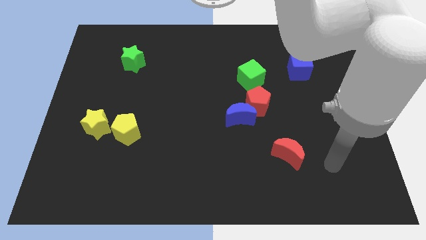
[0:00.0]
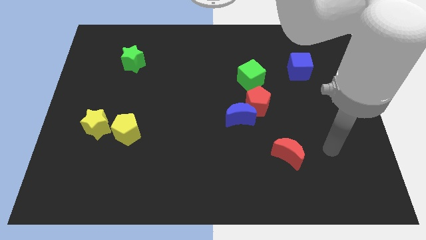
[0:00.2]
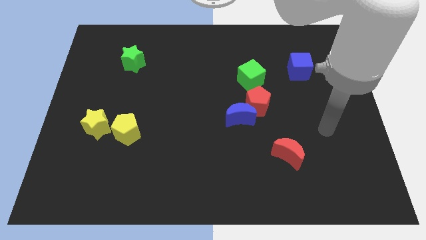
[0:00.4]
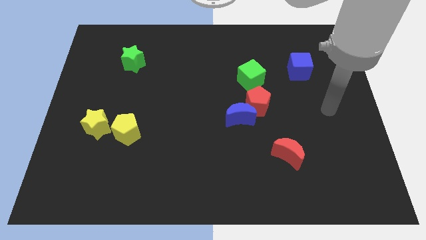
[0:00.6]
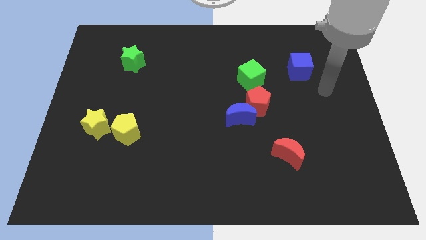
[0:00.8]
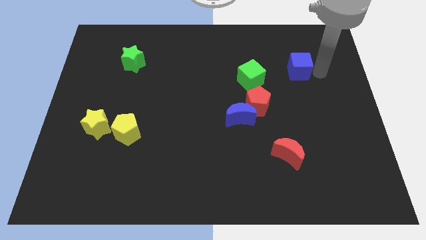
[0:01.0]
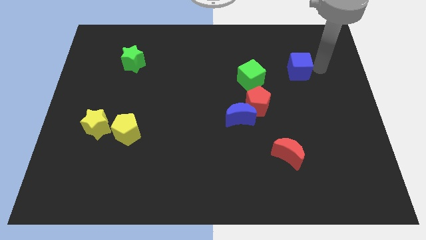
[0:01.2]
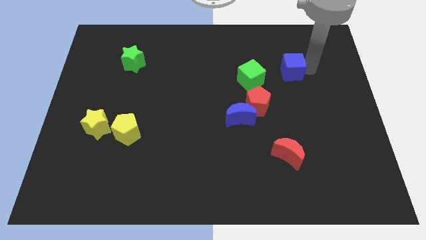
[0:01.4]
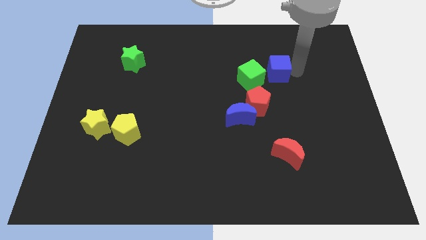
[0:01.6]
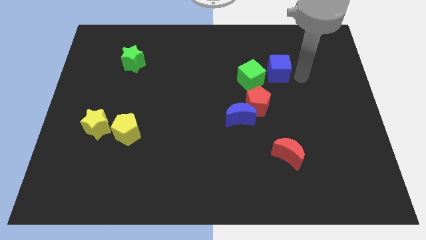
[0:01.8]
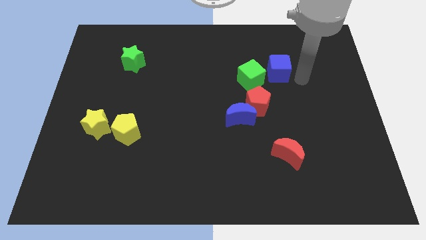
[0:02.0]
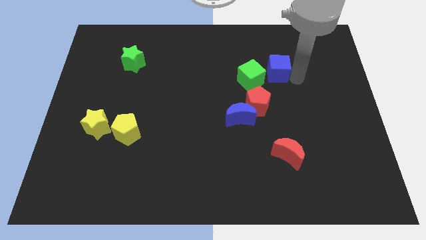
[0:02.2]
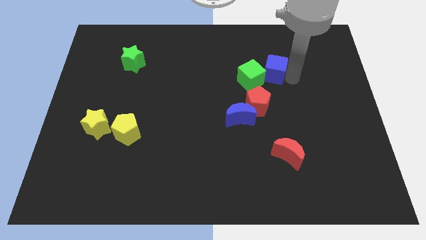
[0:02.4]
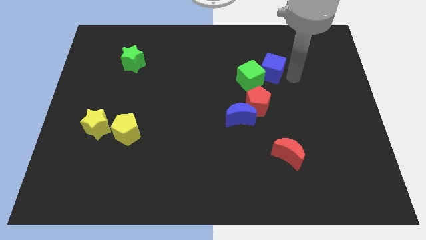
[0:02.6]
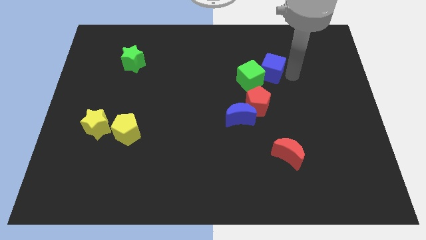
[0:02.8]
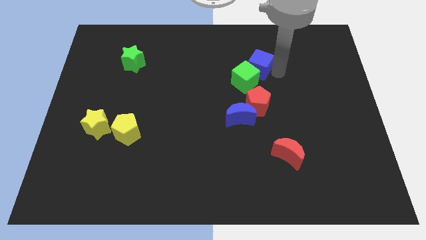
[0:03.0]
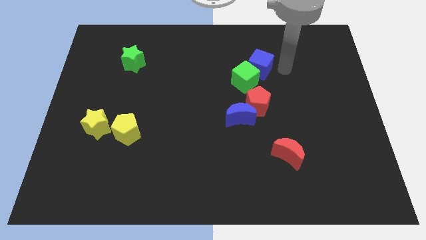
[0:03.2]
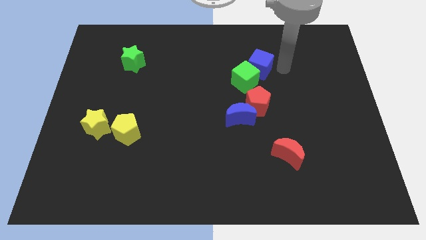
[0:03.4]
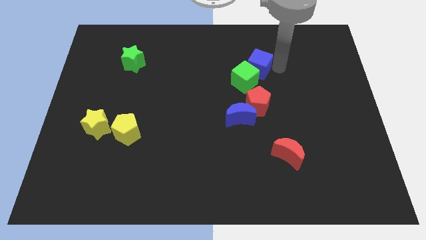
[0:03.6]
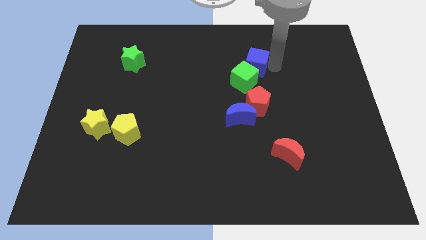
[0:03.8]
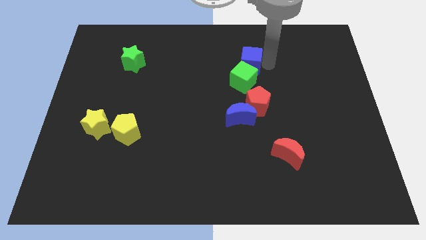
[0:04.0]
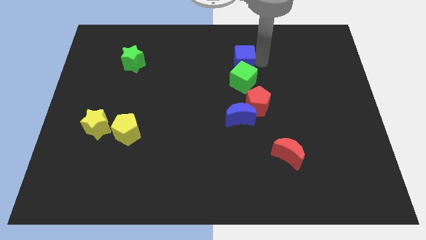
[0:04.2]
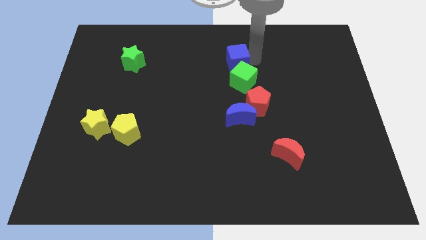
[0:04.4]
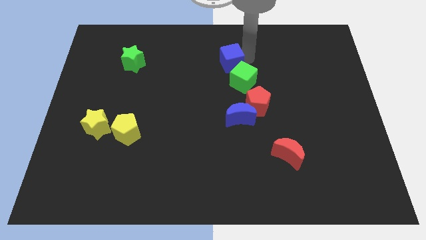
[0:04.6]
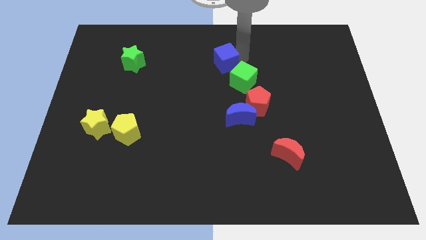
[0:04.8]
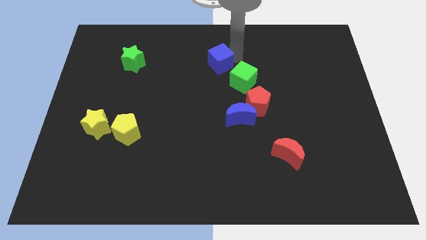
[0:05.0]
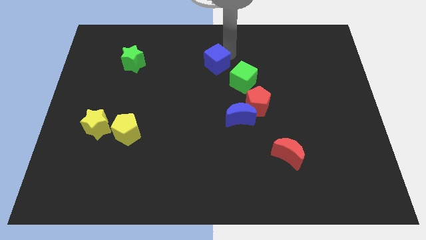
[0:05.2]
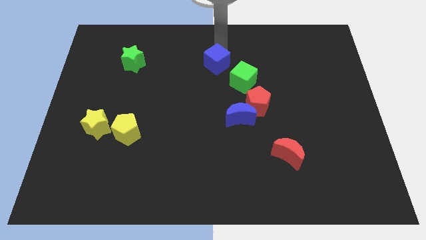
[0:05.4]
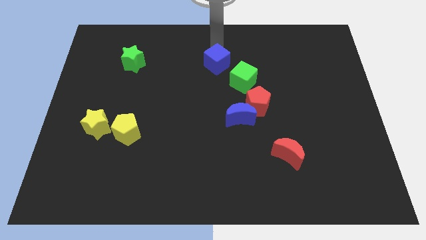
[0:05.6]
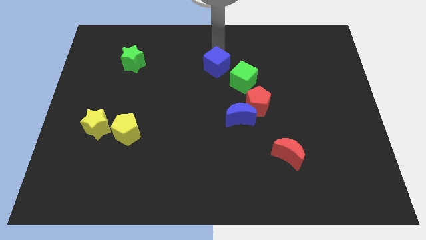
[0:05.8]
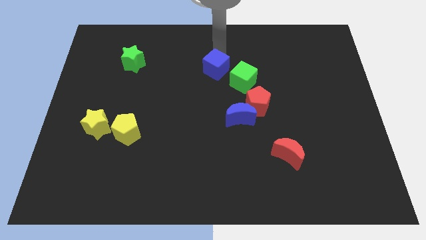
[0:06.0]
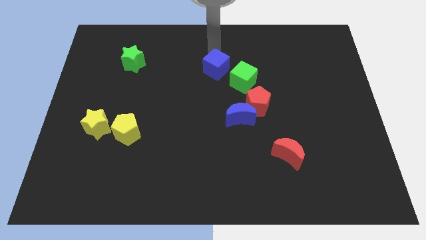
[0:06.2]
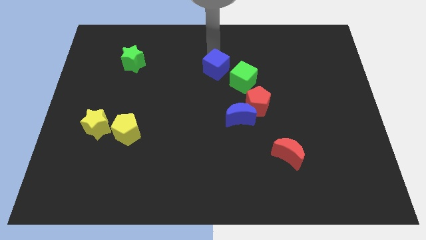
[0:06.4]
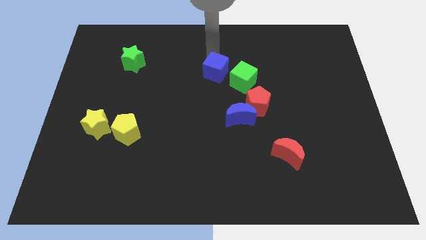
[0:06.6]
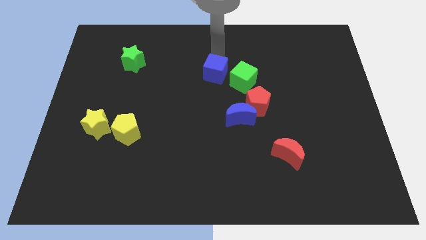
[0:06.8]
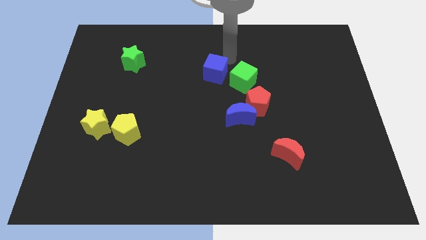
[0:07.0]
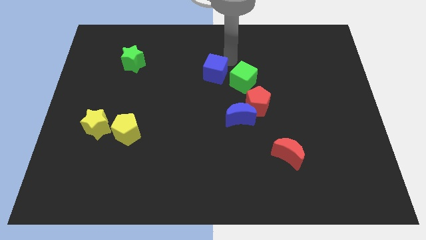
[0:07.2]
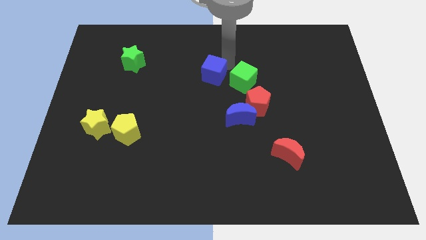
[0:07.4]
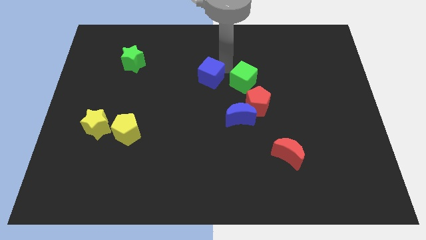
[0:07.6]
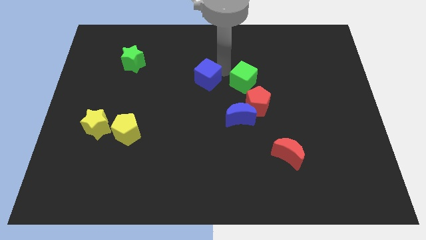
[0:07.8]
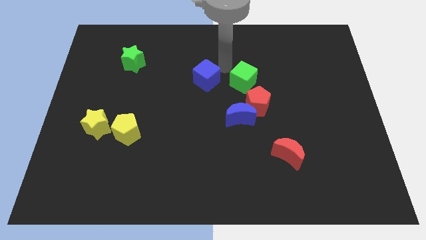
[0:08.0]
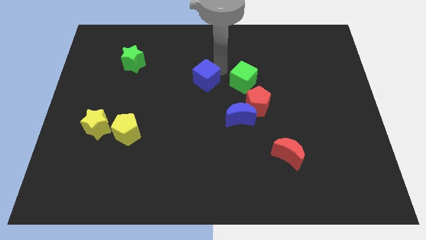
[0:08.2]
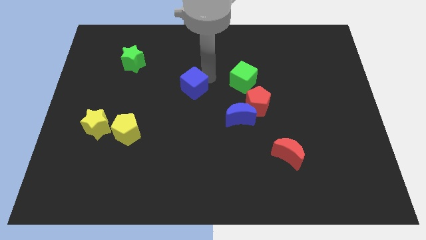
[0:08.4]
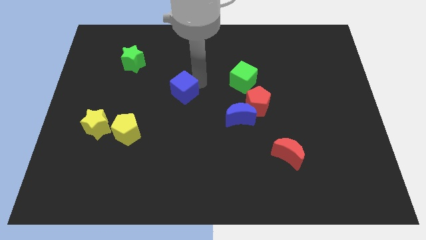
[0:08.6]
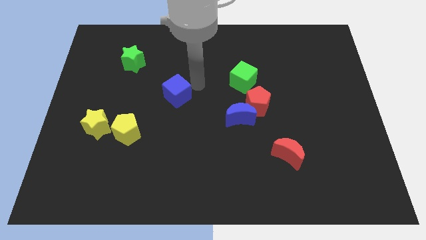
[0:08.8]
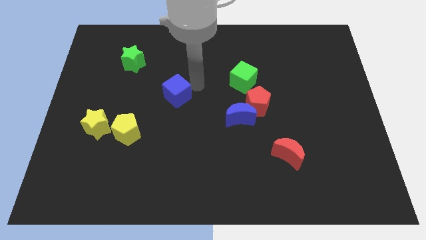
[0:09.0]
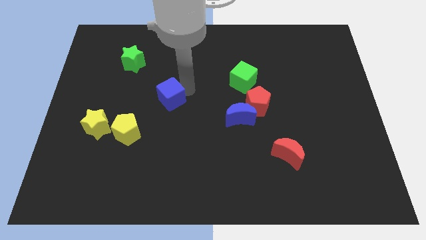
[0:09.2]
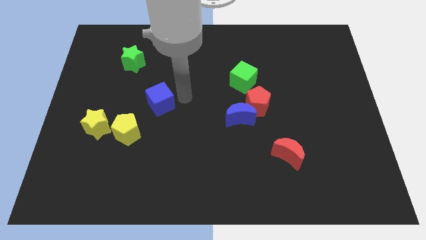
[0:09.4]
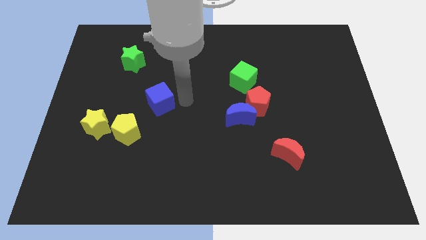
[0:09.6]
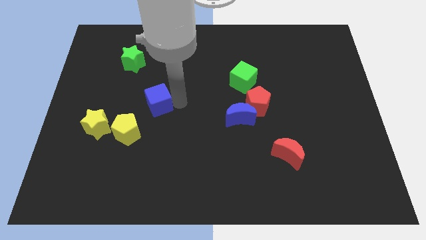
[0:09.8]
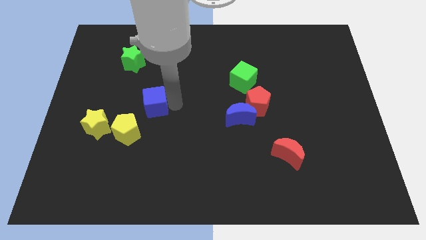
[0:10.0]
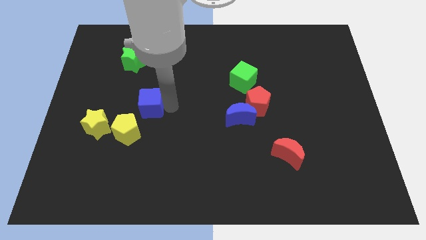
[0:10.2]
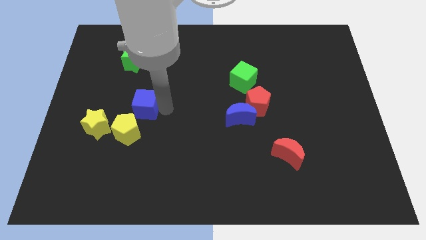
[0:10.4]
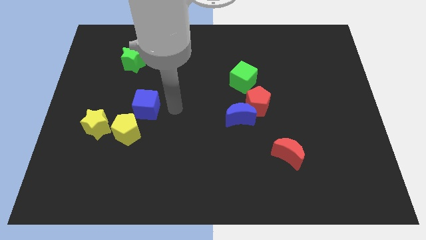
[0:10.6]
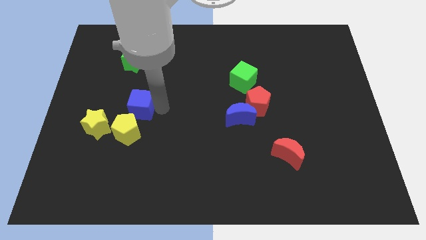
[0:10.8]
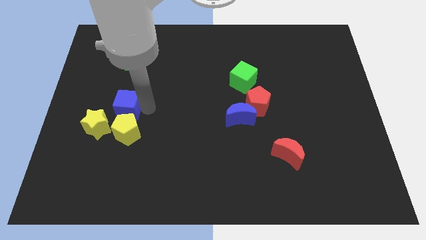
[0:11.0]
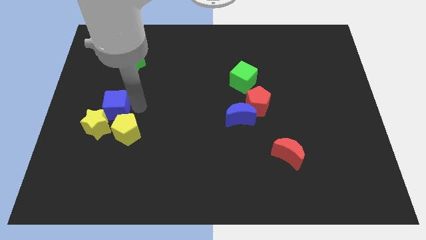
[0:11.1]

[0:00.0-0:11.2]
push the blue cube next to the yellow star

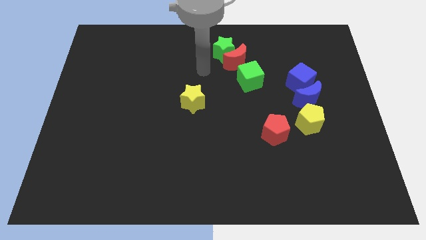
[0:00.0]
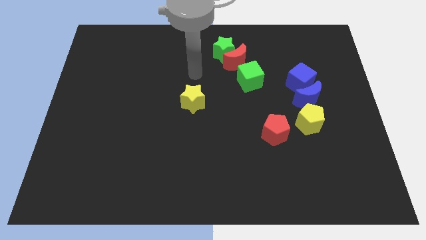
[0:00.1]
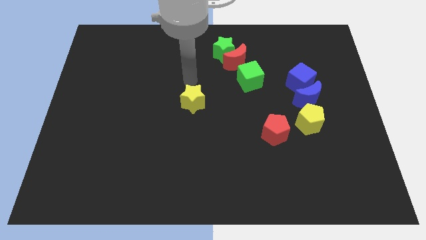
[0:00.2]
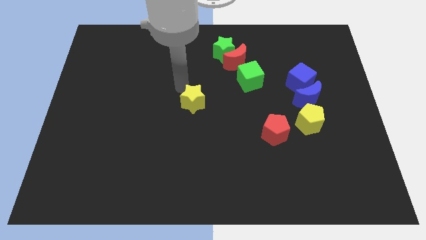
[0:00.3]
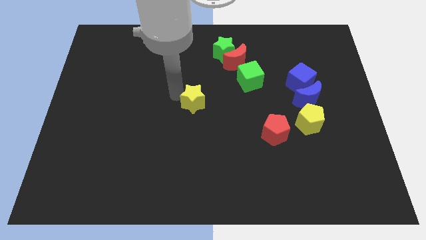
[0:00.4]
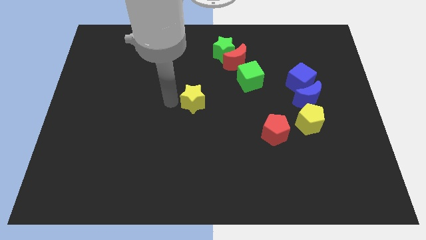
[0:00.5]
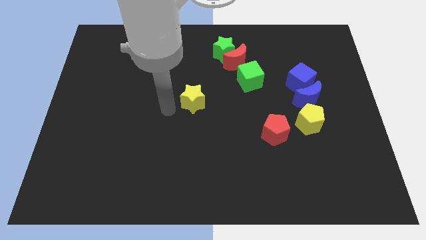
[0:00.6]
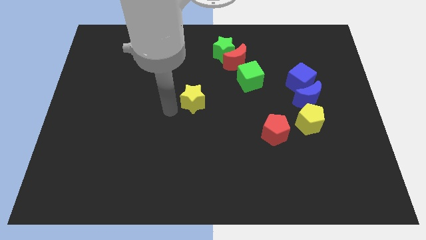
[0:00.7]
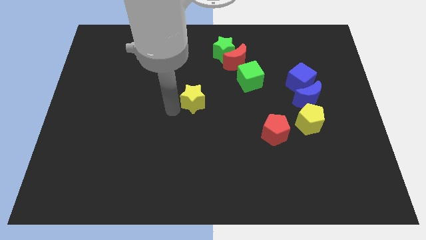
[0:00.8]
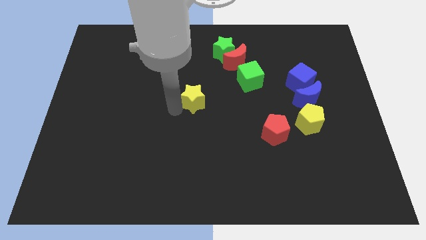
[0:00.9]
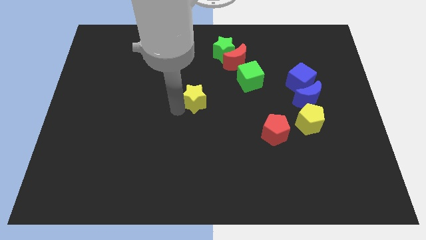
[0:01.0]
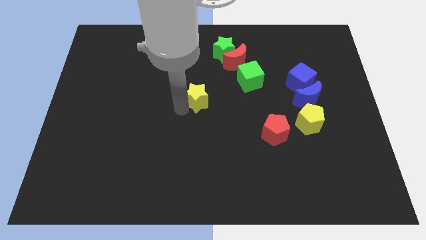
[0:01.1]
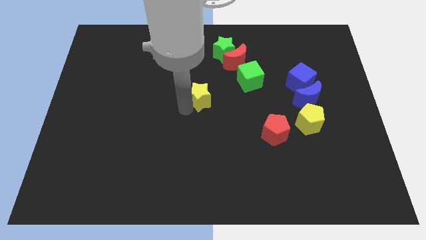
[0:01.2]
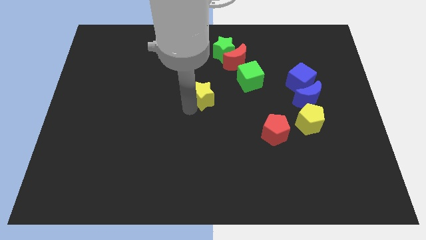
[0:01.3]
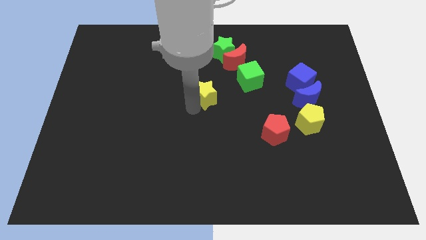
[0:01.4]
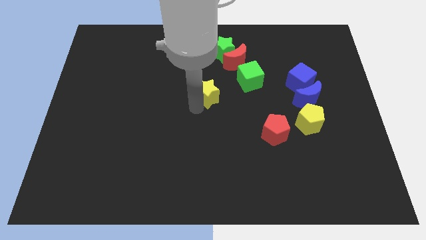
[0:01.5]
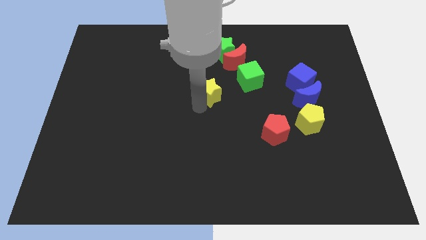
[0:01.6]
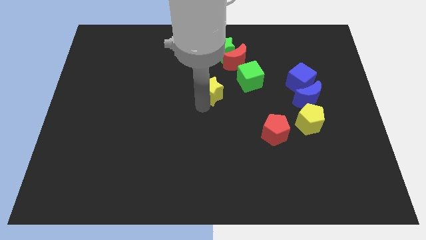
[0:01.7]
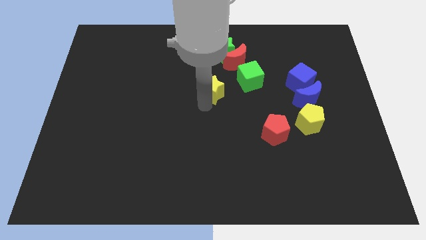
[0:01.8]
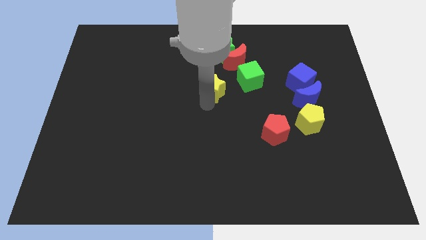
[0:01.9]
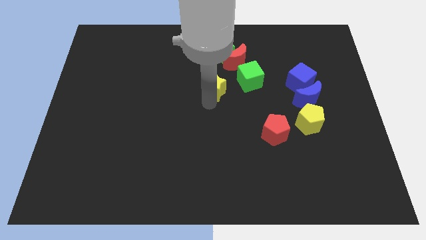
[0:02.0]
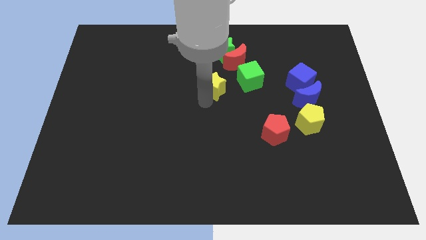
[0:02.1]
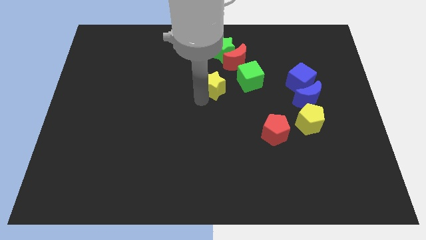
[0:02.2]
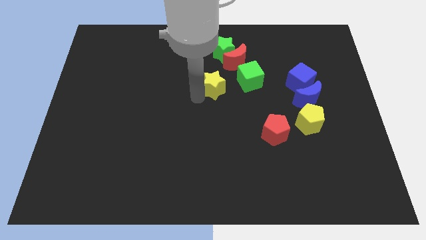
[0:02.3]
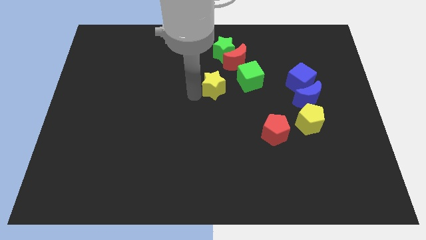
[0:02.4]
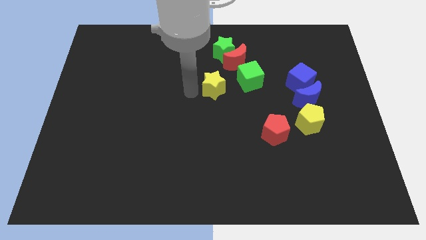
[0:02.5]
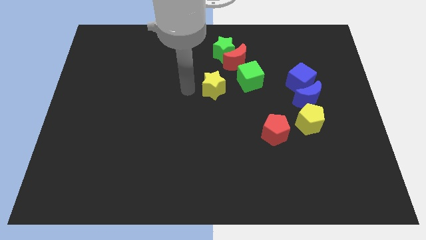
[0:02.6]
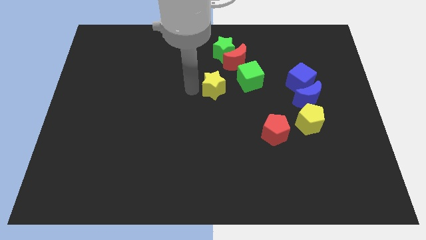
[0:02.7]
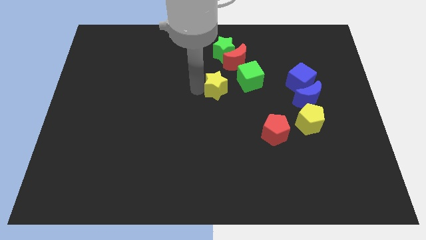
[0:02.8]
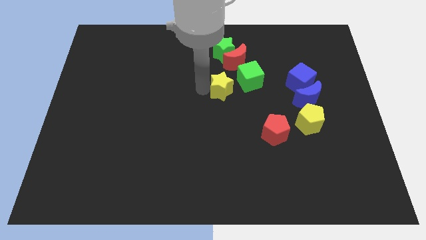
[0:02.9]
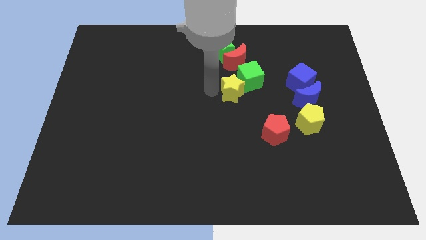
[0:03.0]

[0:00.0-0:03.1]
slide the yellow star to the green cube
